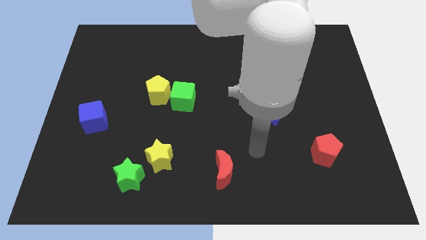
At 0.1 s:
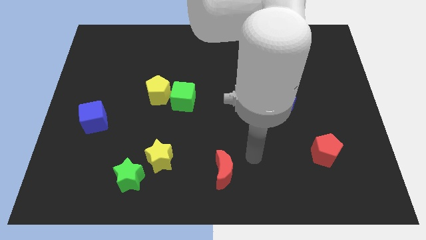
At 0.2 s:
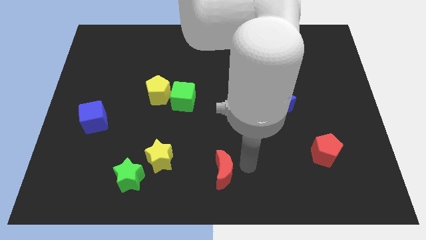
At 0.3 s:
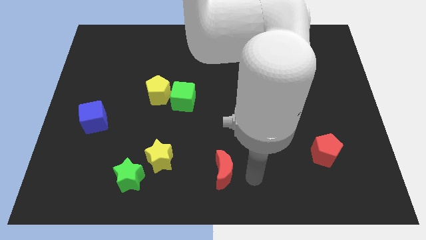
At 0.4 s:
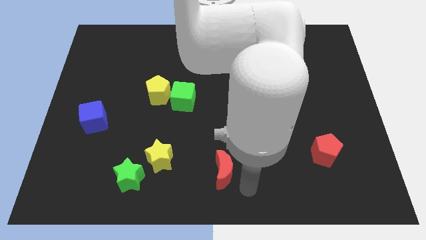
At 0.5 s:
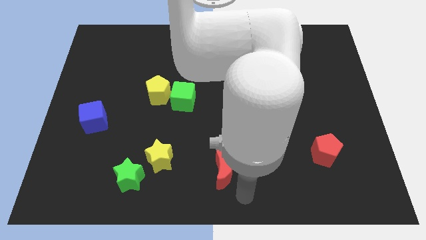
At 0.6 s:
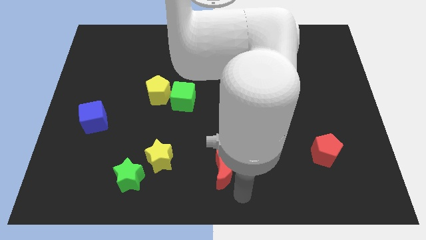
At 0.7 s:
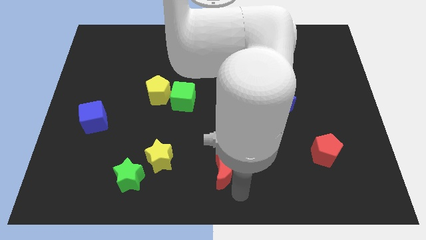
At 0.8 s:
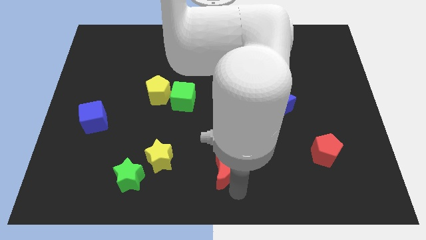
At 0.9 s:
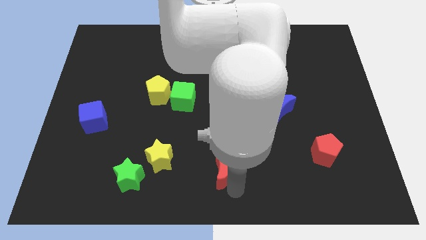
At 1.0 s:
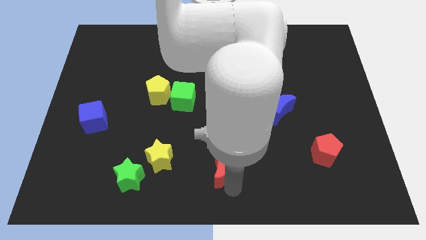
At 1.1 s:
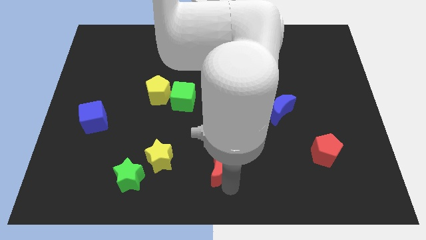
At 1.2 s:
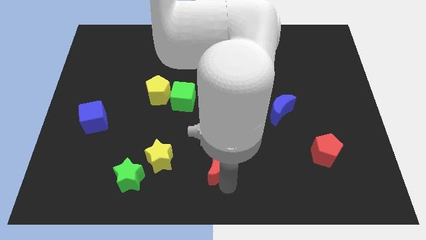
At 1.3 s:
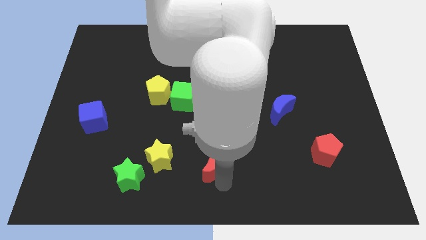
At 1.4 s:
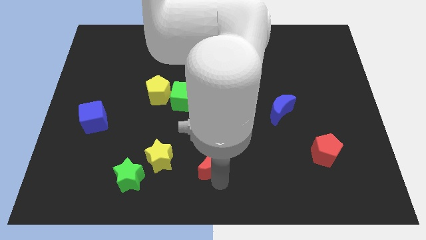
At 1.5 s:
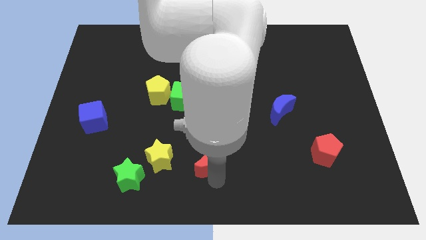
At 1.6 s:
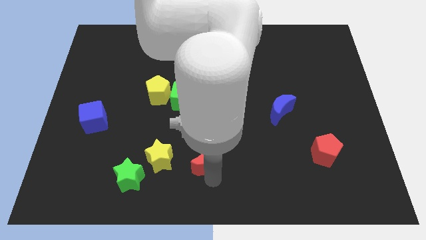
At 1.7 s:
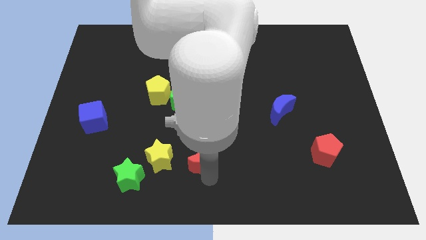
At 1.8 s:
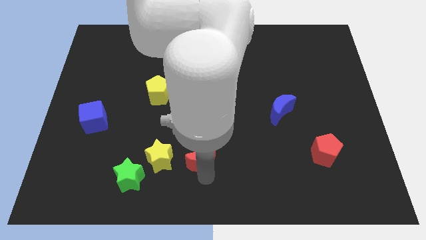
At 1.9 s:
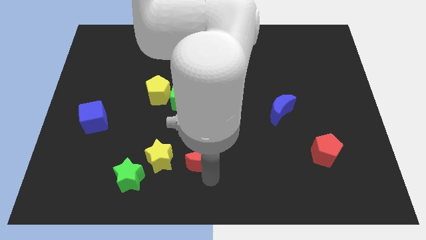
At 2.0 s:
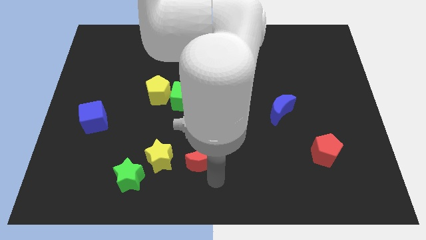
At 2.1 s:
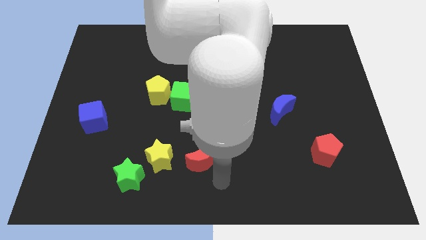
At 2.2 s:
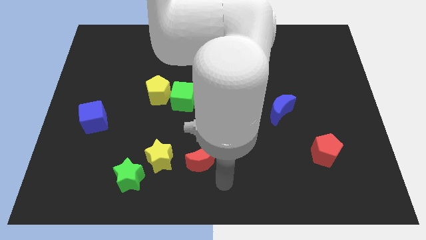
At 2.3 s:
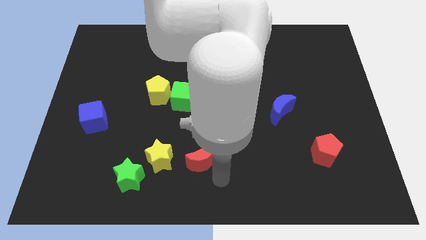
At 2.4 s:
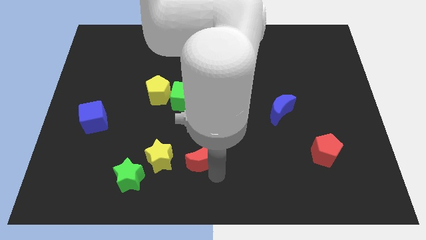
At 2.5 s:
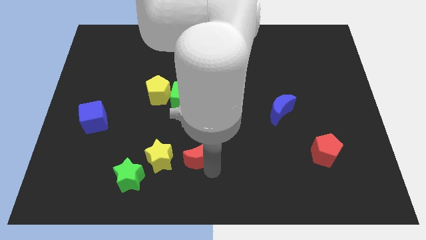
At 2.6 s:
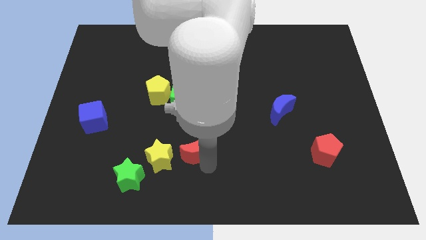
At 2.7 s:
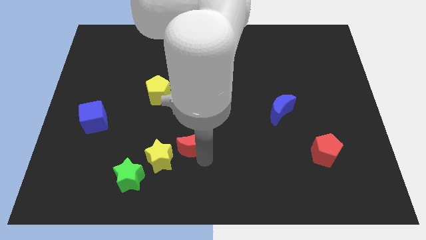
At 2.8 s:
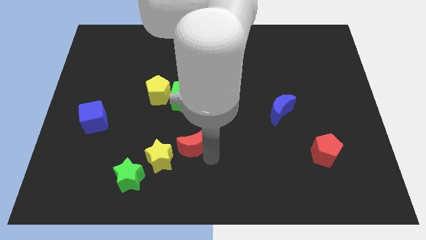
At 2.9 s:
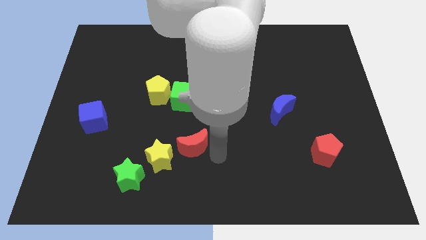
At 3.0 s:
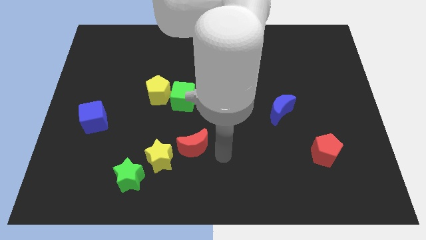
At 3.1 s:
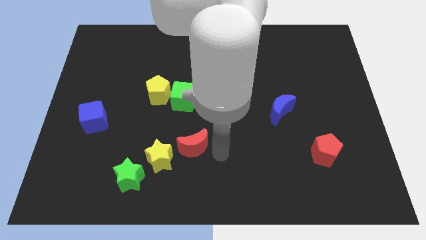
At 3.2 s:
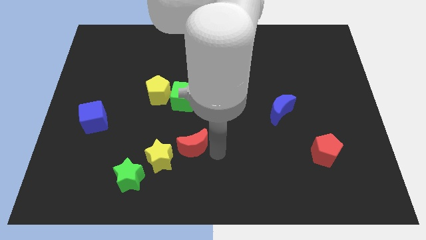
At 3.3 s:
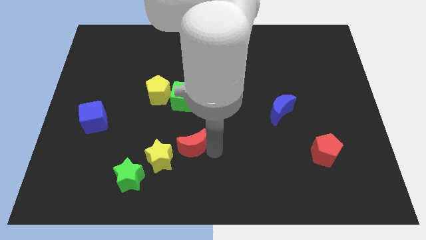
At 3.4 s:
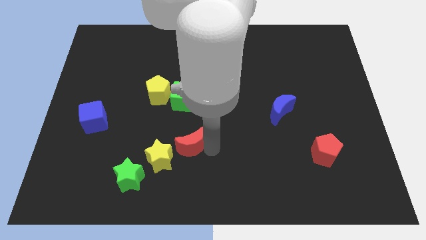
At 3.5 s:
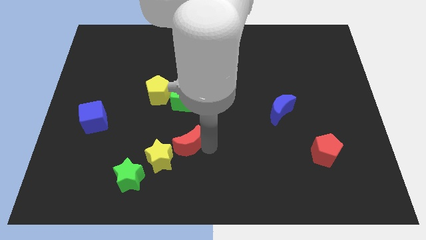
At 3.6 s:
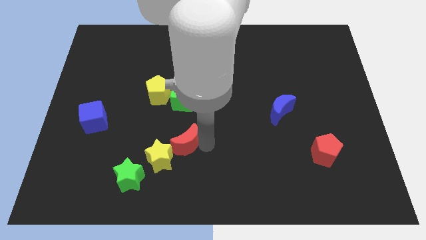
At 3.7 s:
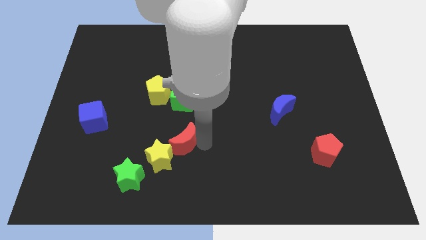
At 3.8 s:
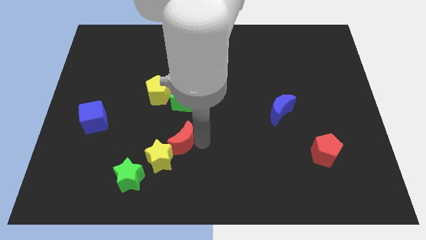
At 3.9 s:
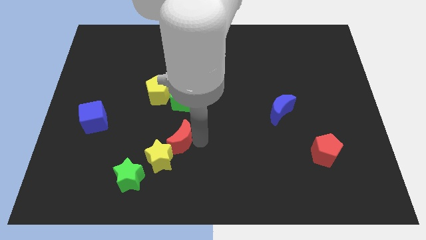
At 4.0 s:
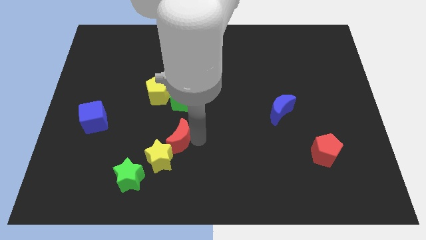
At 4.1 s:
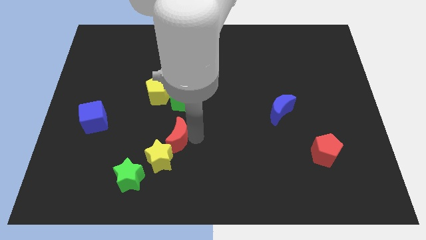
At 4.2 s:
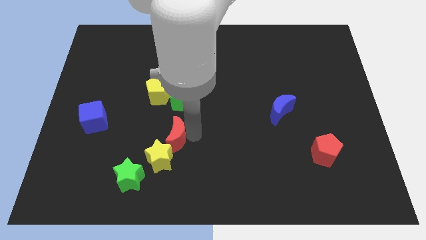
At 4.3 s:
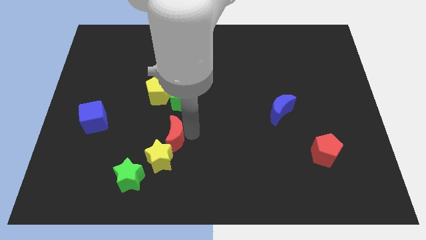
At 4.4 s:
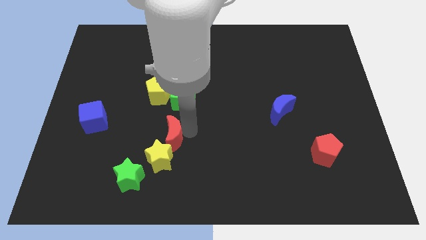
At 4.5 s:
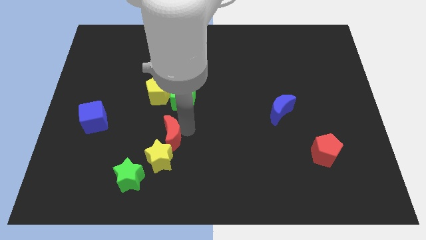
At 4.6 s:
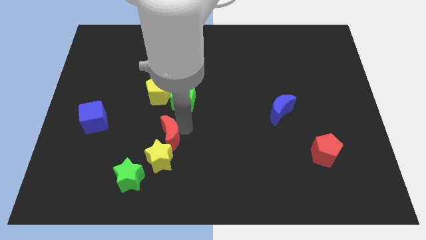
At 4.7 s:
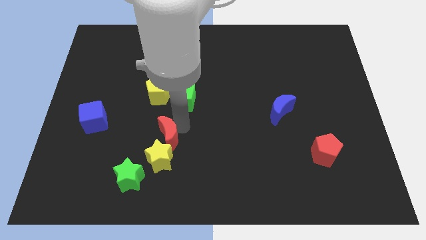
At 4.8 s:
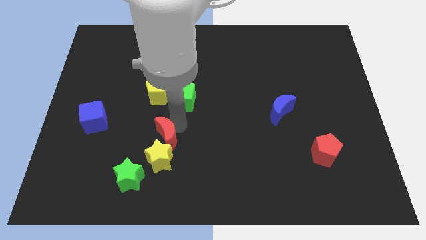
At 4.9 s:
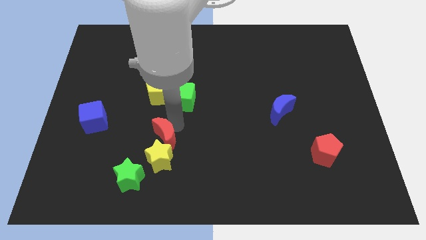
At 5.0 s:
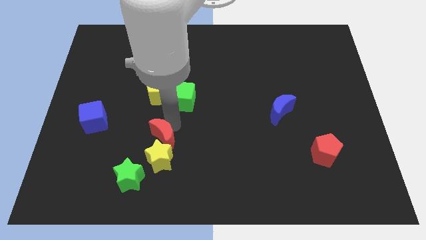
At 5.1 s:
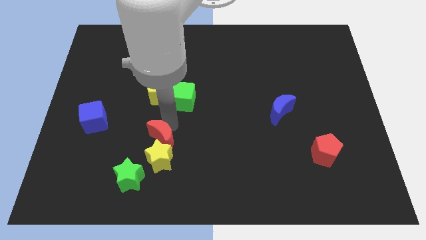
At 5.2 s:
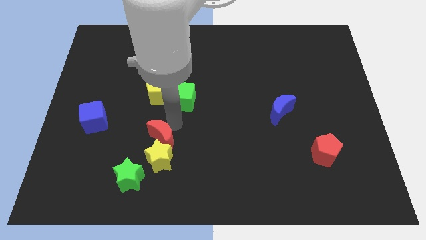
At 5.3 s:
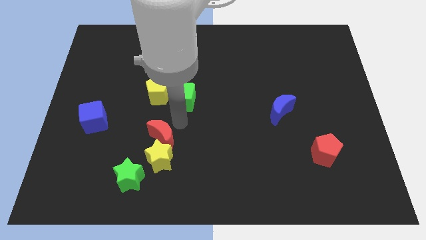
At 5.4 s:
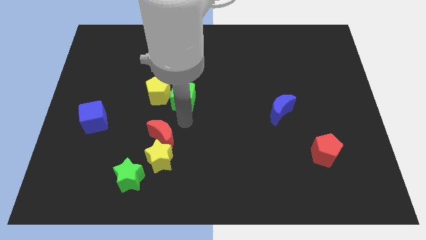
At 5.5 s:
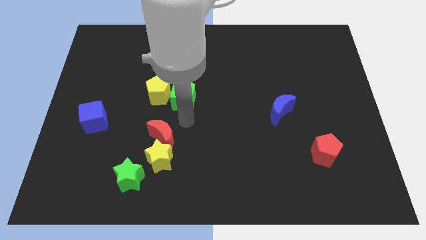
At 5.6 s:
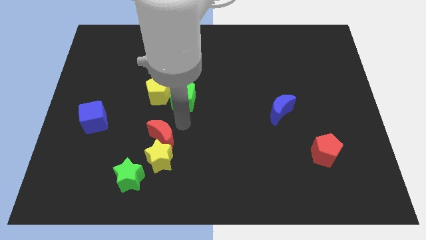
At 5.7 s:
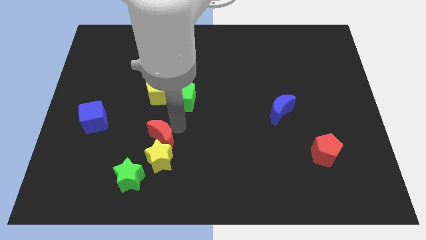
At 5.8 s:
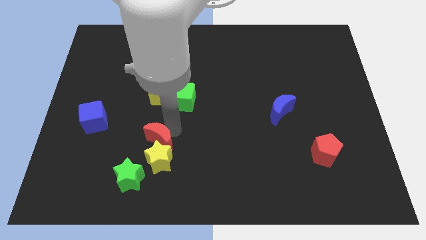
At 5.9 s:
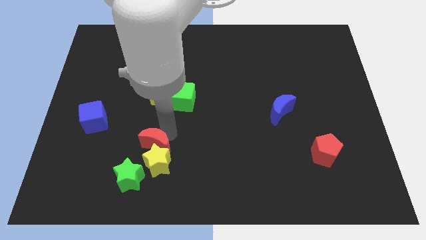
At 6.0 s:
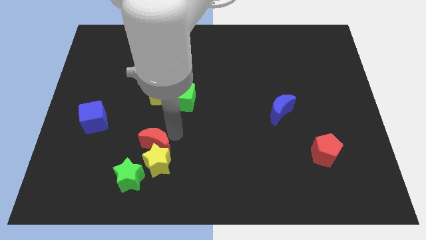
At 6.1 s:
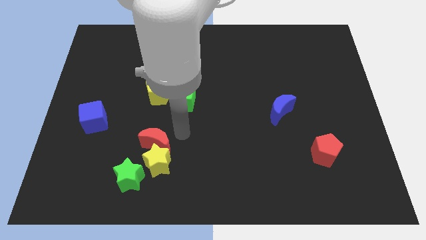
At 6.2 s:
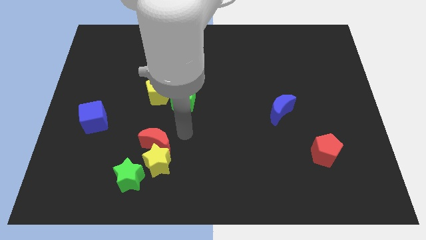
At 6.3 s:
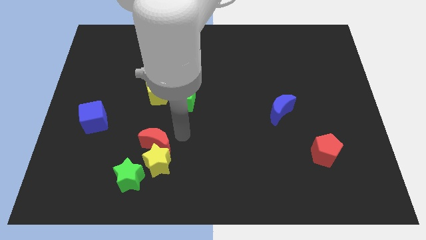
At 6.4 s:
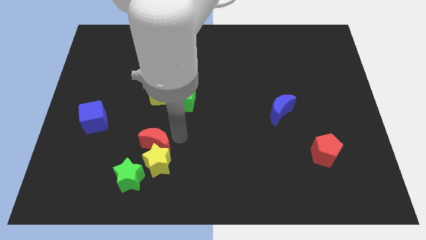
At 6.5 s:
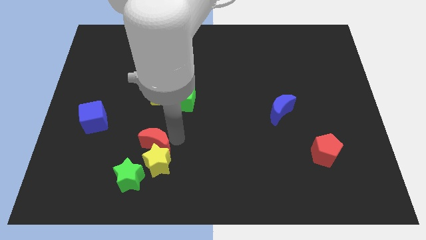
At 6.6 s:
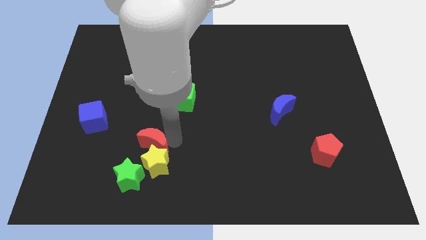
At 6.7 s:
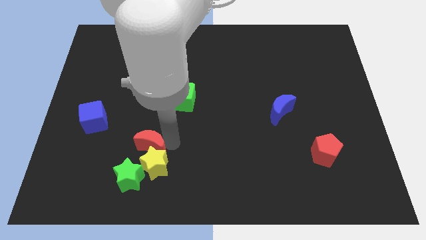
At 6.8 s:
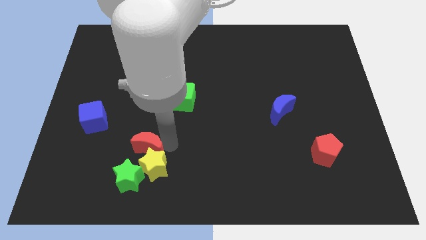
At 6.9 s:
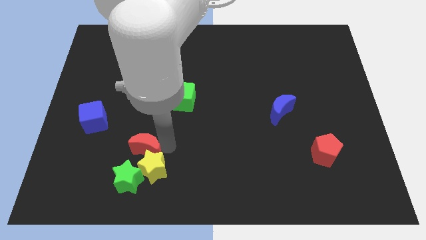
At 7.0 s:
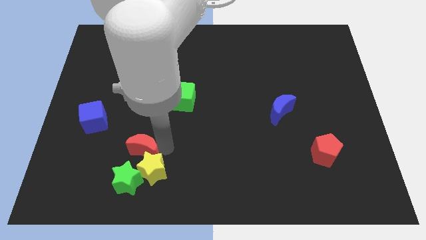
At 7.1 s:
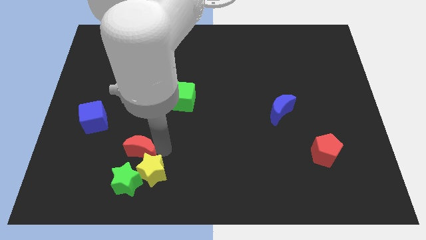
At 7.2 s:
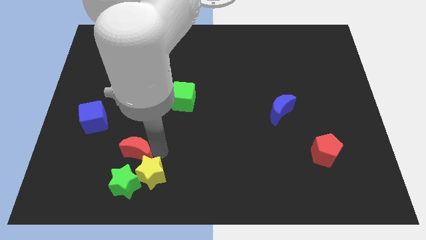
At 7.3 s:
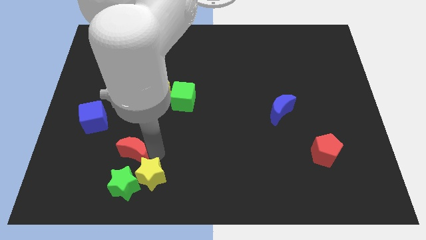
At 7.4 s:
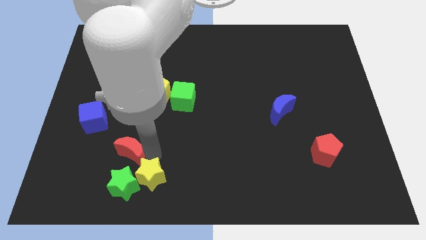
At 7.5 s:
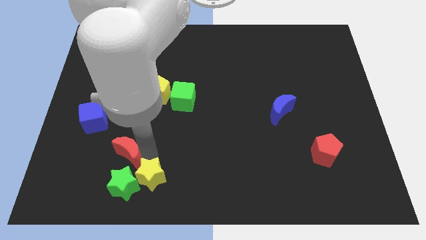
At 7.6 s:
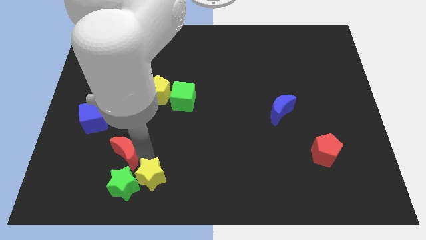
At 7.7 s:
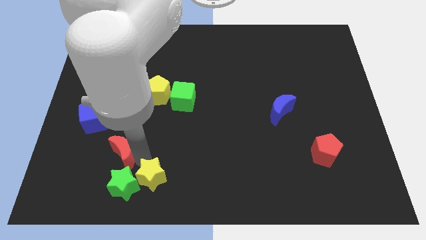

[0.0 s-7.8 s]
slide the red moon to the top left of the green star
